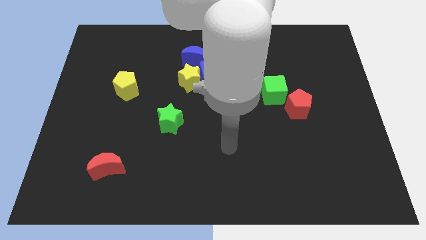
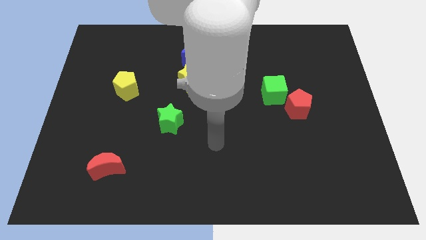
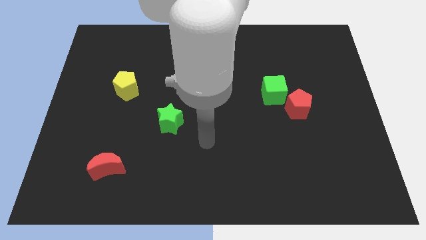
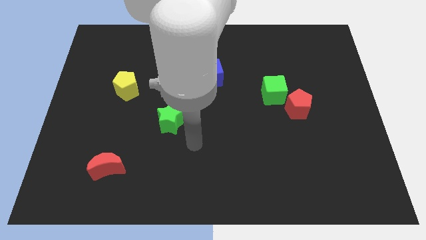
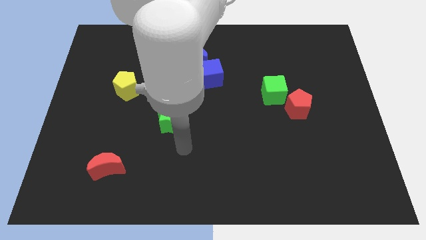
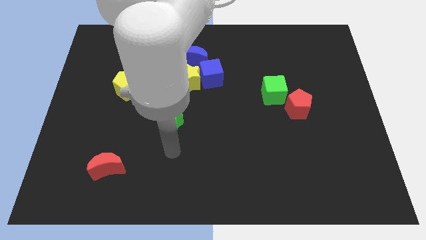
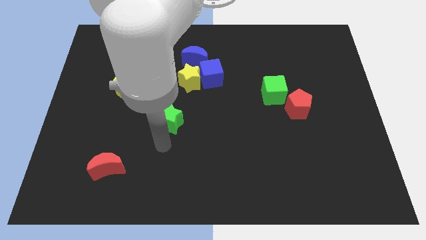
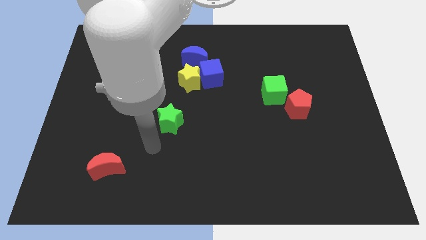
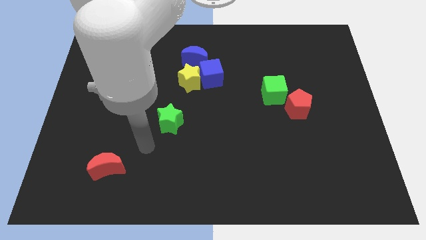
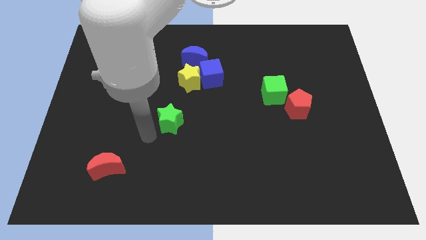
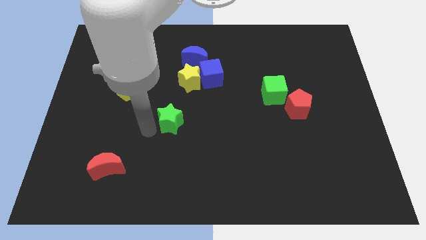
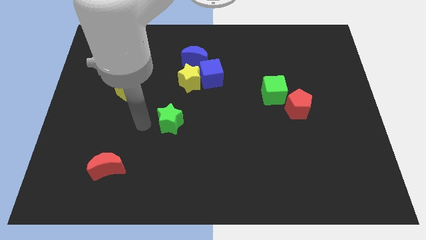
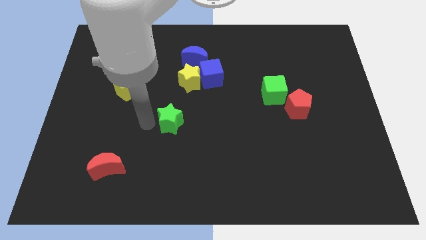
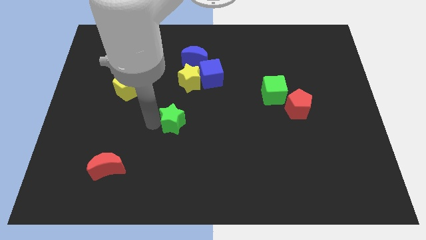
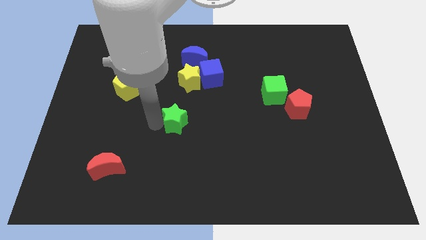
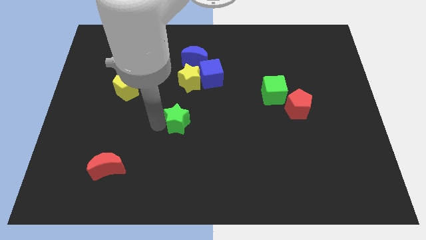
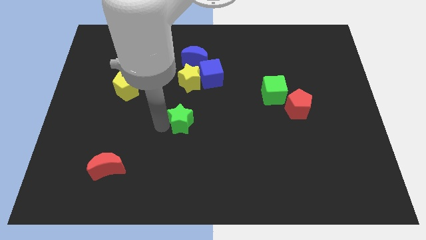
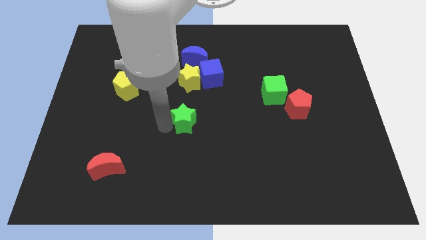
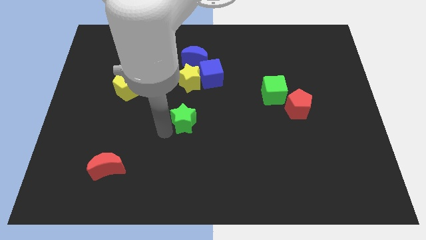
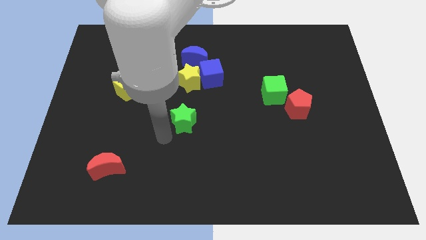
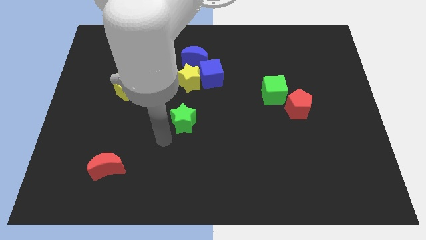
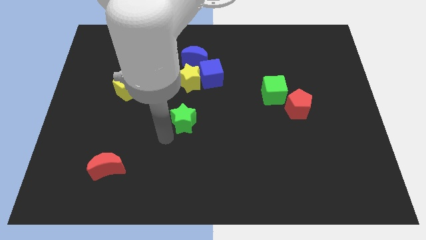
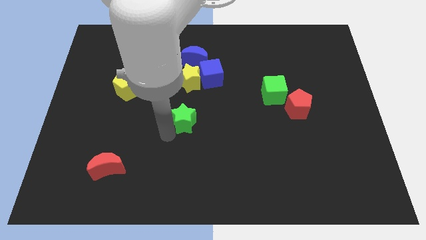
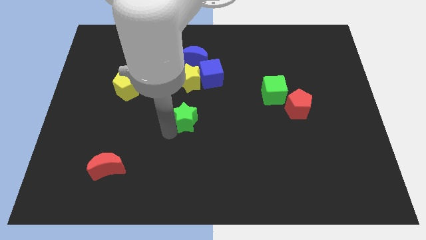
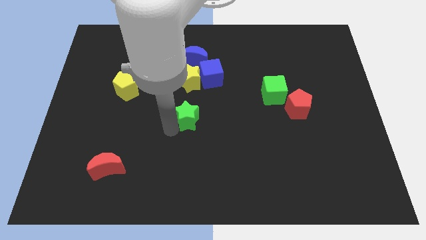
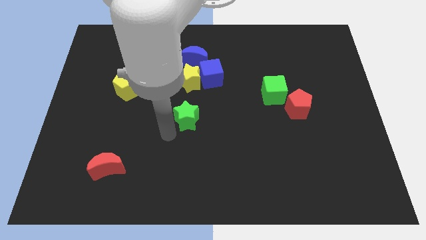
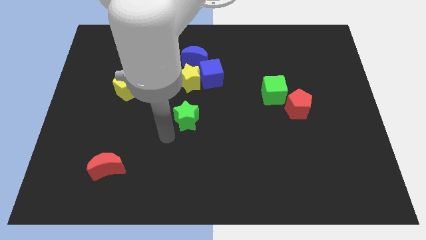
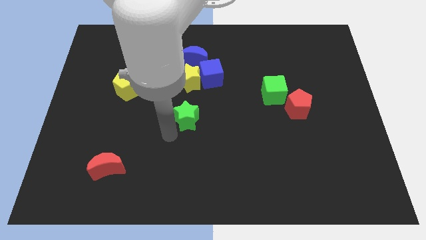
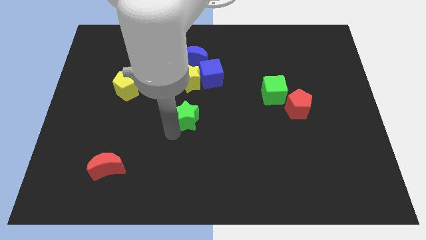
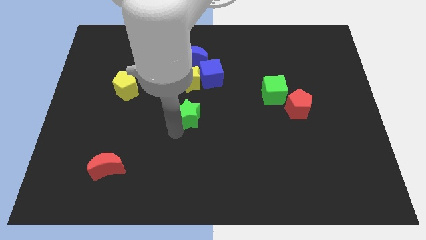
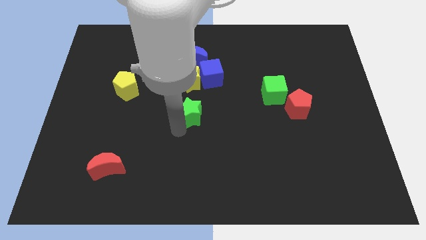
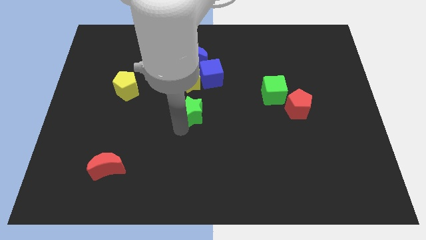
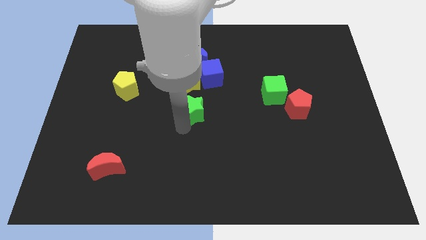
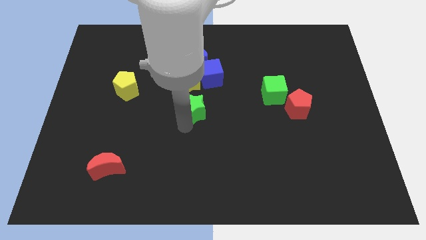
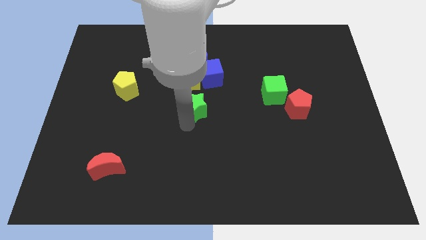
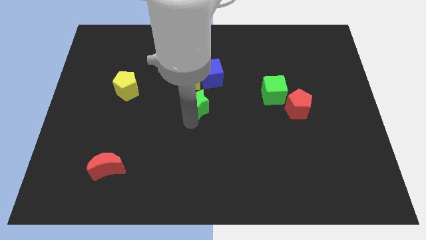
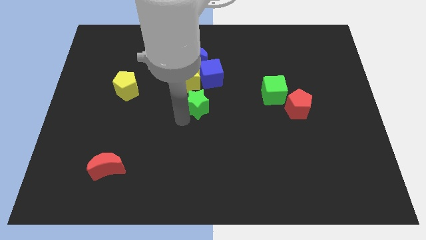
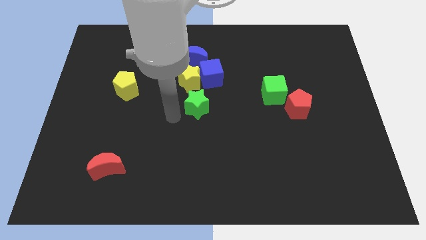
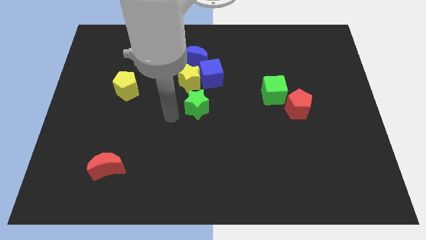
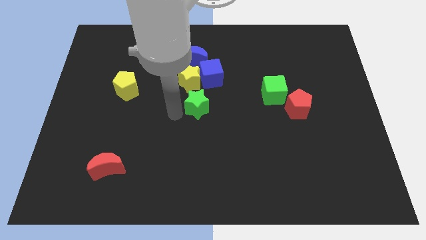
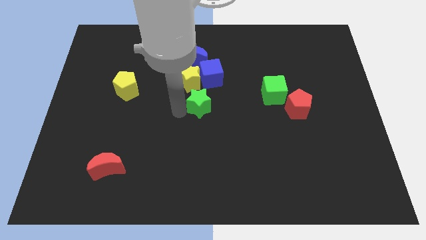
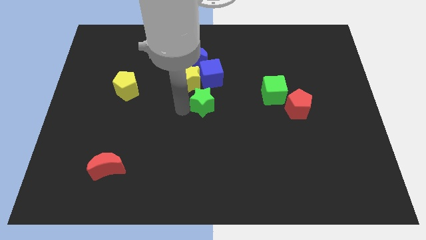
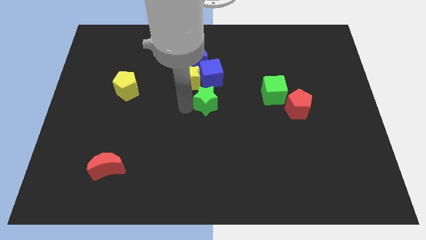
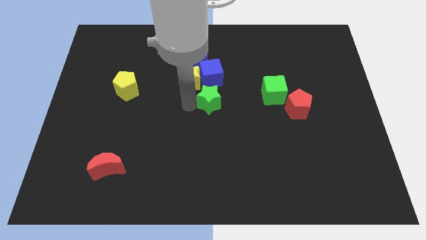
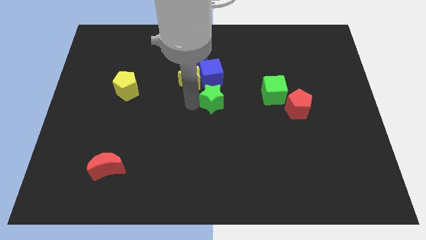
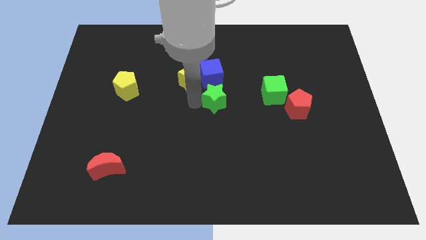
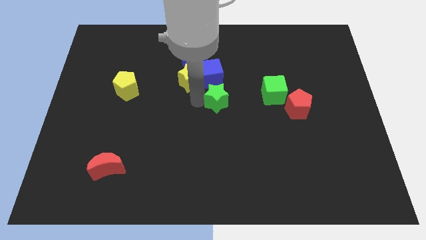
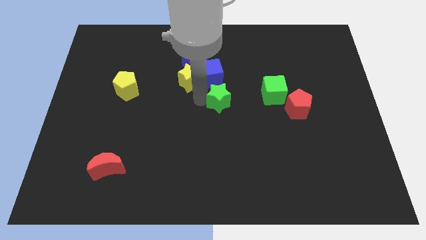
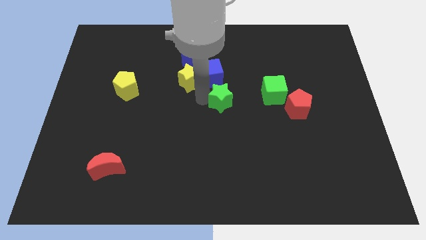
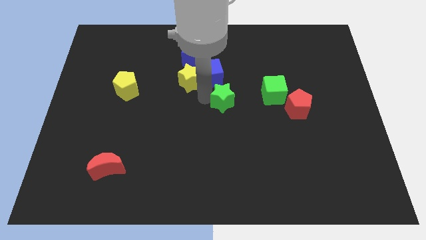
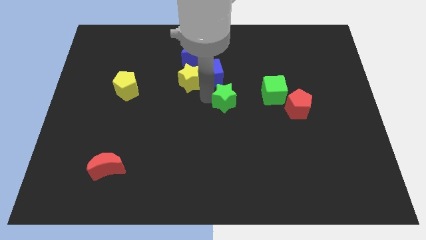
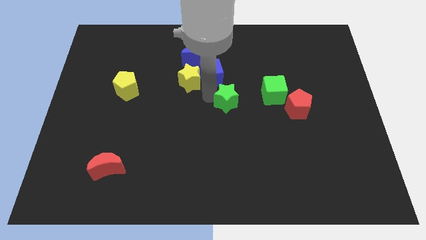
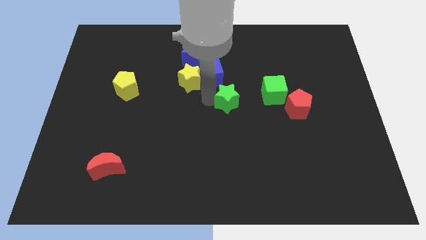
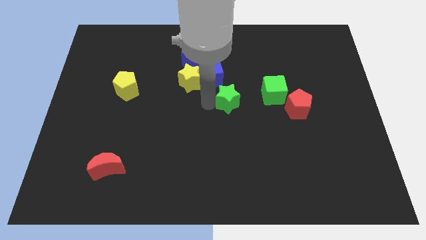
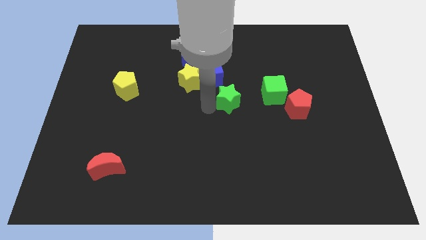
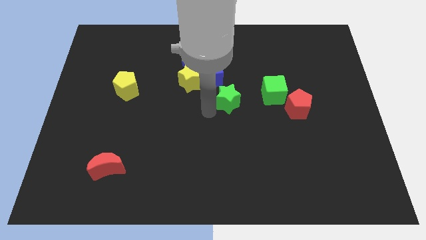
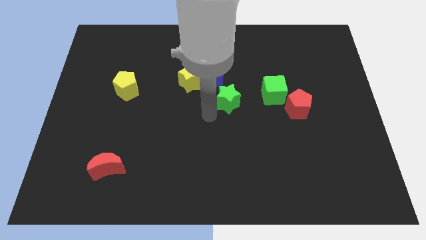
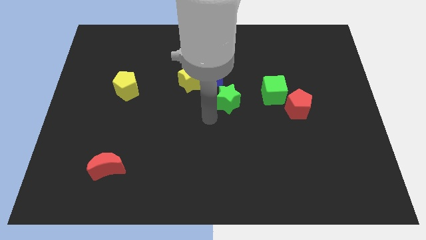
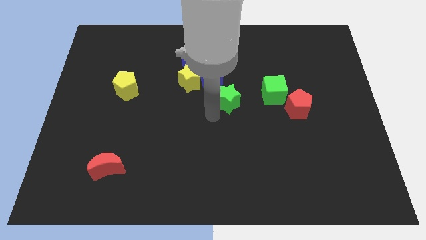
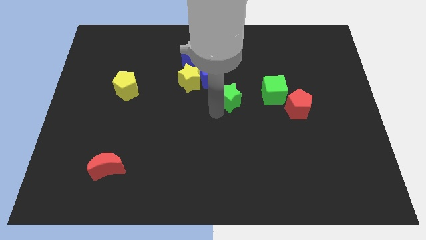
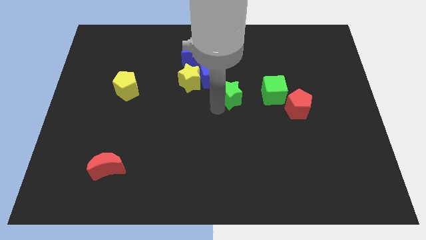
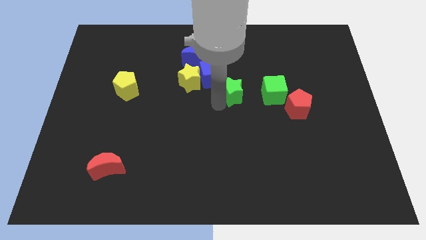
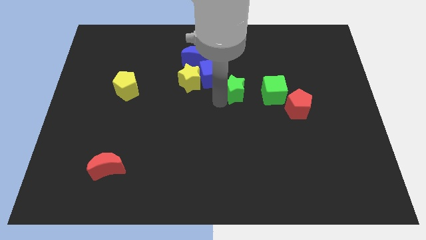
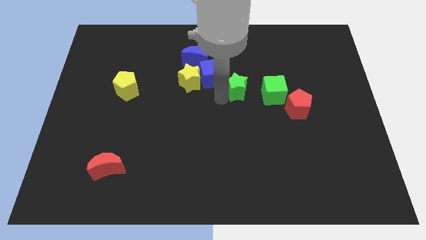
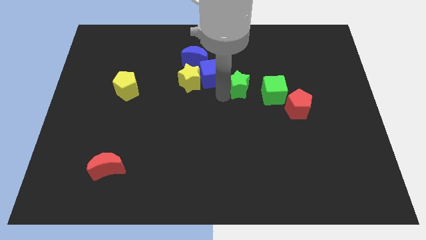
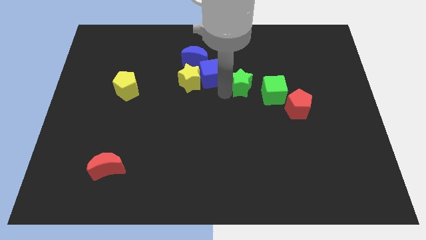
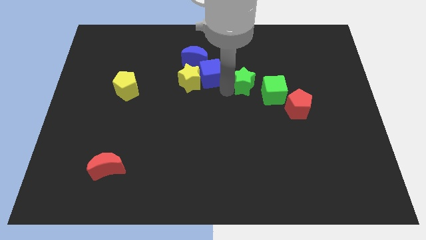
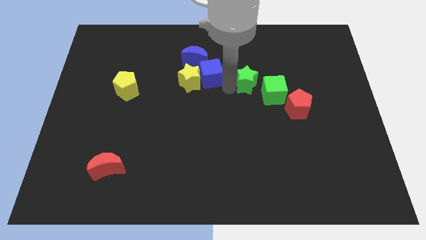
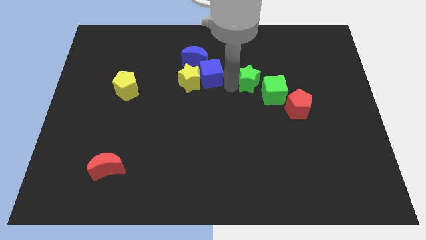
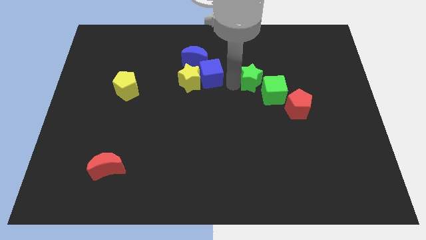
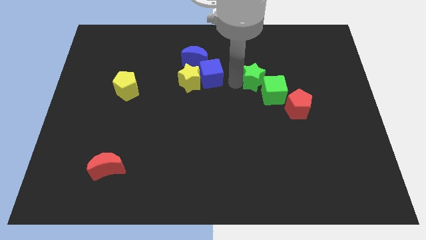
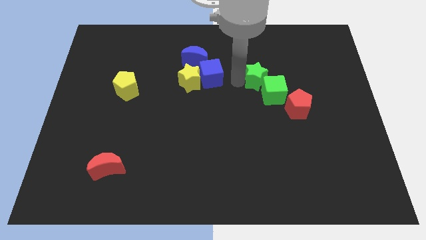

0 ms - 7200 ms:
move the green star to the green cube
